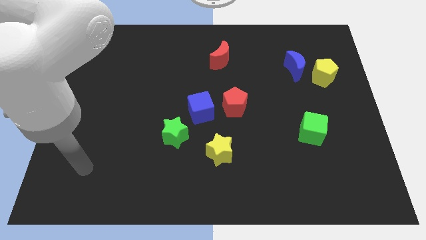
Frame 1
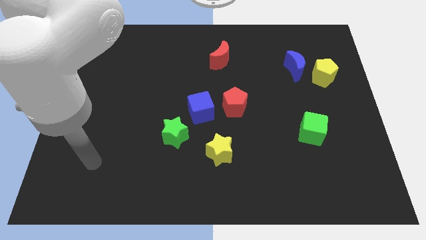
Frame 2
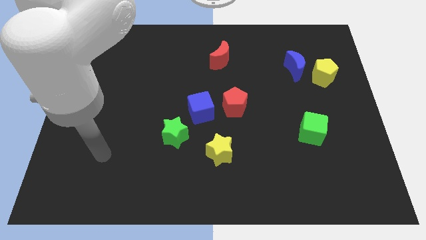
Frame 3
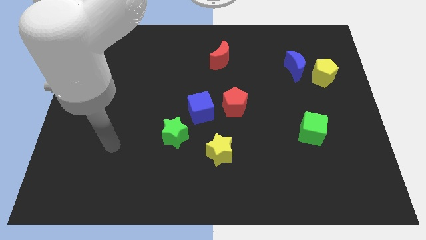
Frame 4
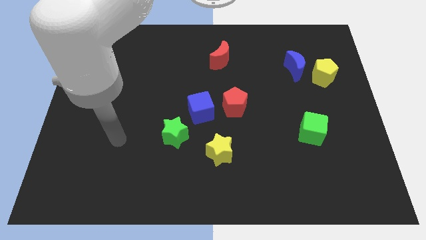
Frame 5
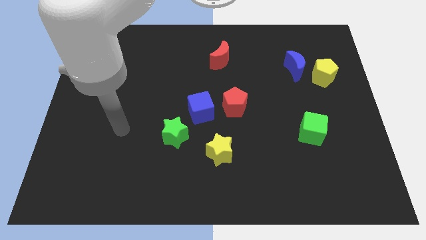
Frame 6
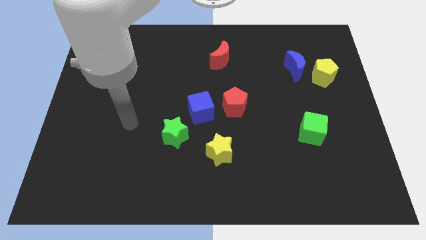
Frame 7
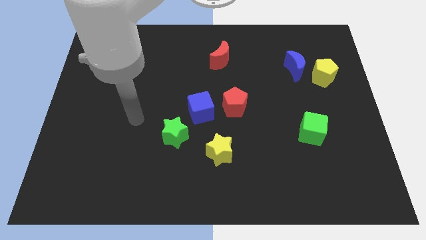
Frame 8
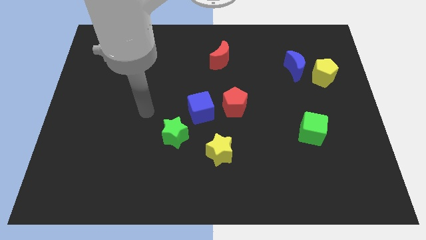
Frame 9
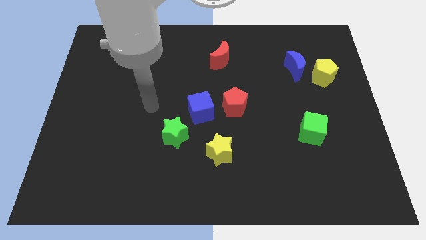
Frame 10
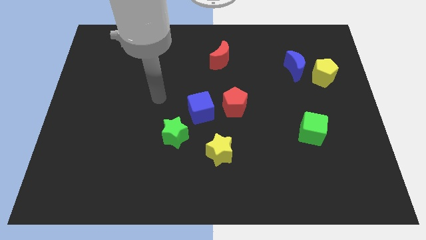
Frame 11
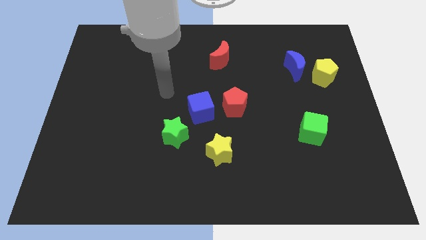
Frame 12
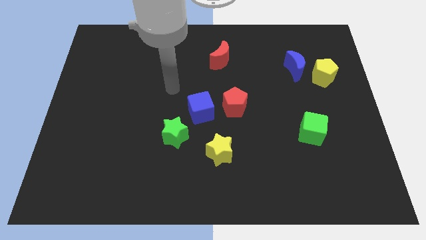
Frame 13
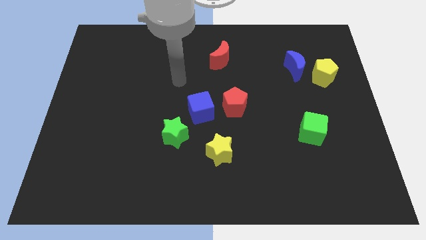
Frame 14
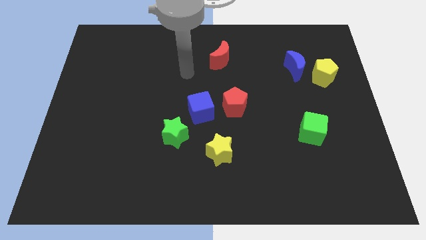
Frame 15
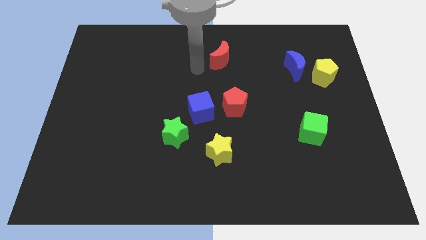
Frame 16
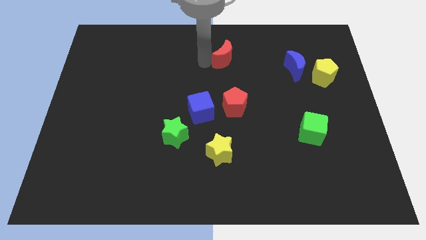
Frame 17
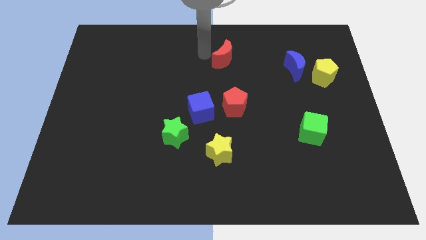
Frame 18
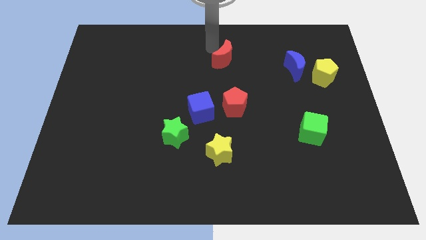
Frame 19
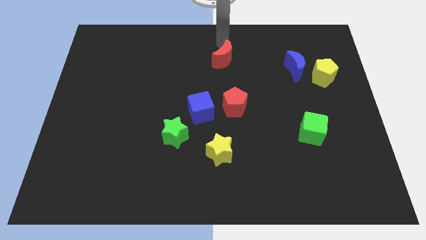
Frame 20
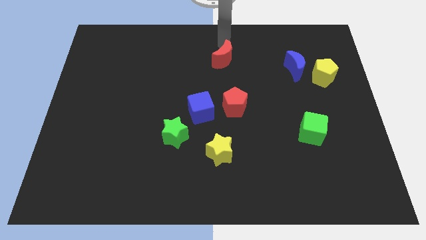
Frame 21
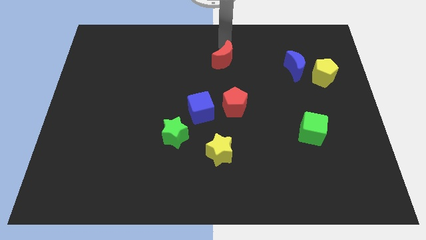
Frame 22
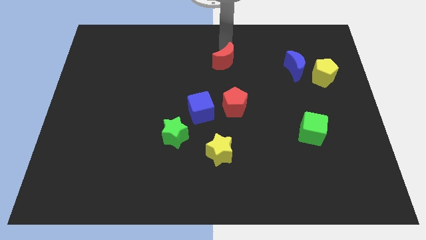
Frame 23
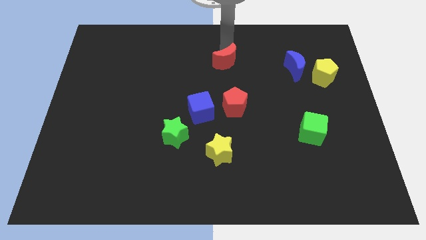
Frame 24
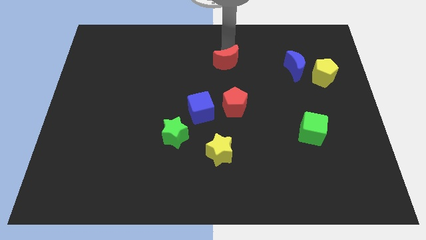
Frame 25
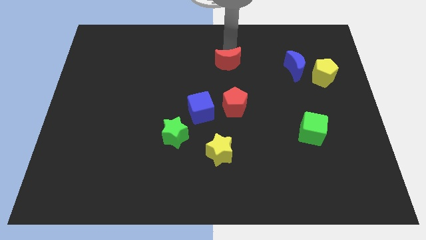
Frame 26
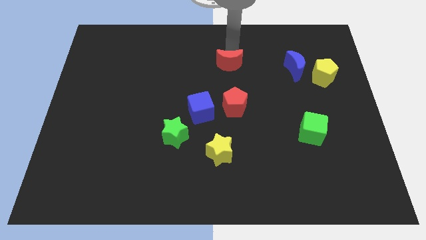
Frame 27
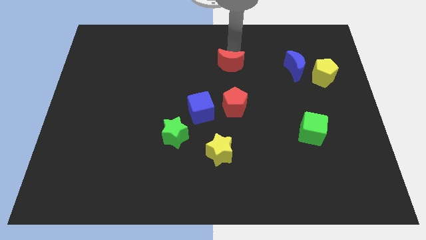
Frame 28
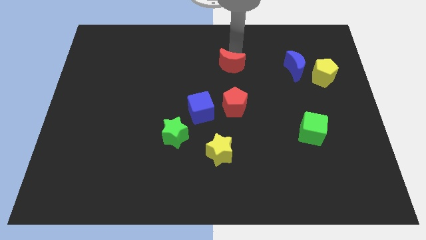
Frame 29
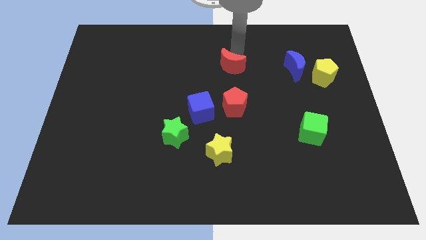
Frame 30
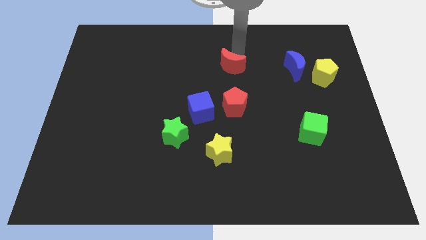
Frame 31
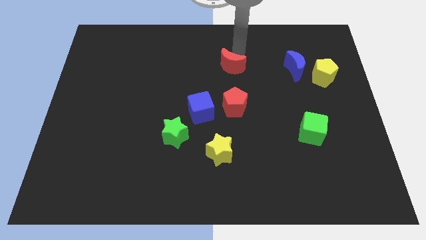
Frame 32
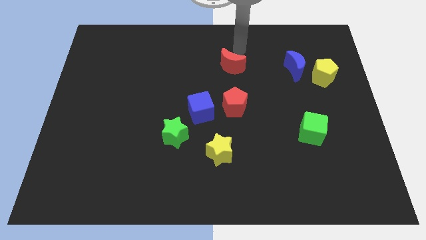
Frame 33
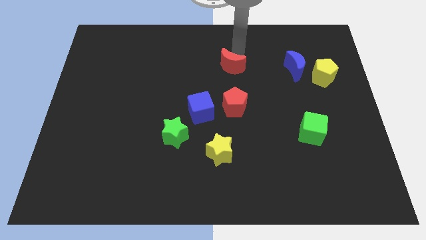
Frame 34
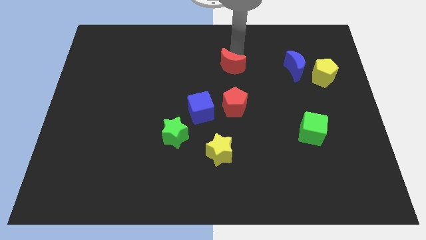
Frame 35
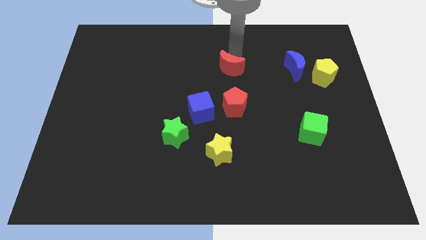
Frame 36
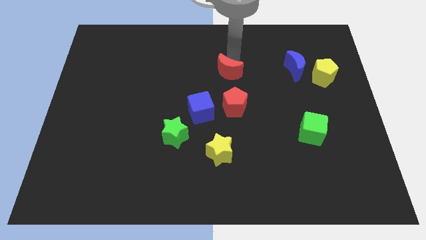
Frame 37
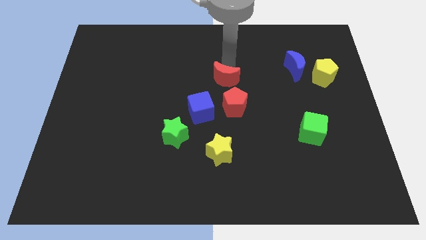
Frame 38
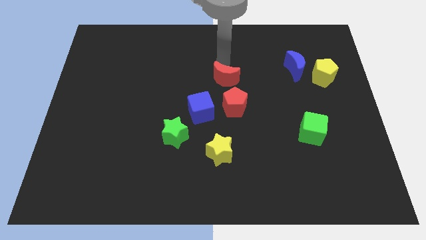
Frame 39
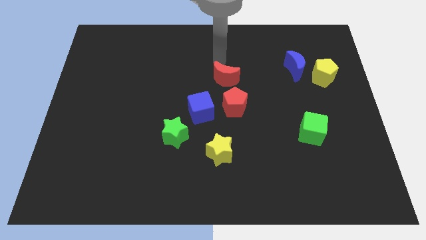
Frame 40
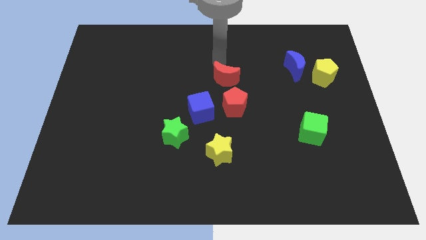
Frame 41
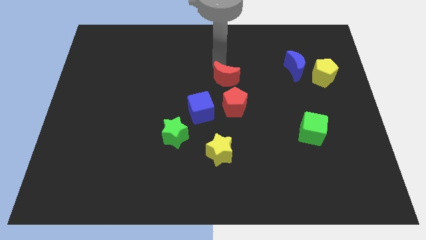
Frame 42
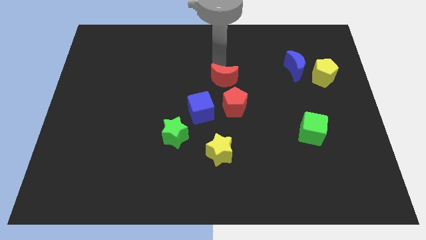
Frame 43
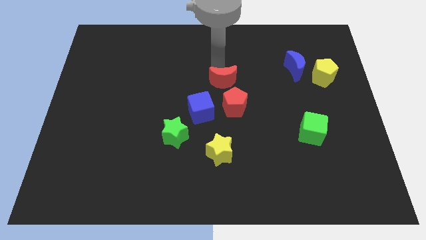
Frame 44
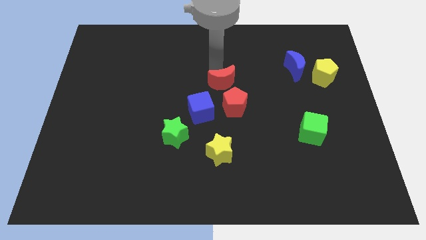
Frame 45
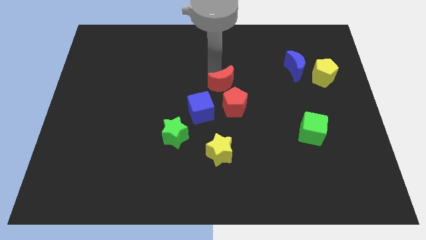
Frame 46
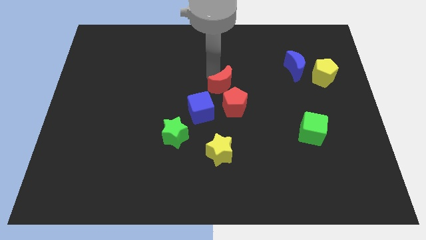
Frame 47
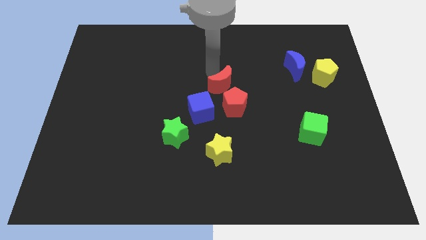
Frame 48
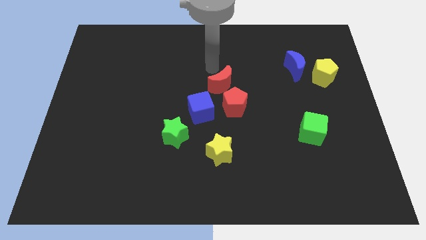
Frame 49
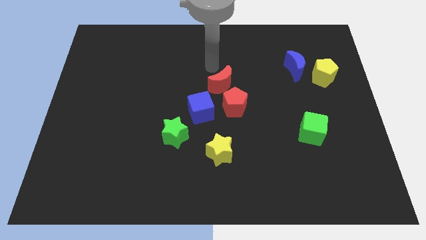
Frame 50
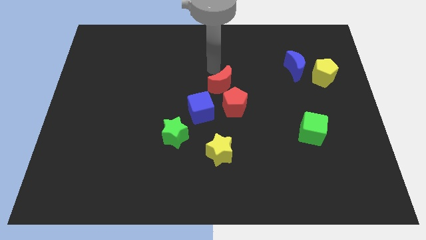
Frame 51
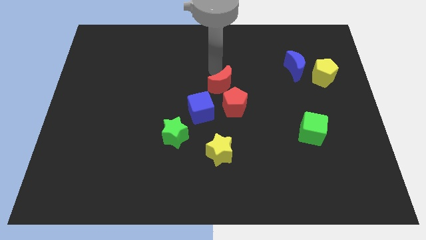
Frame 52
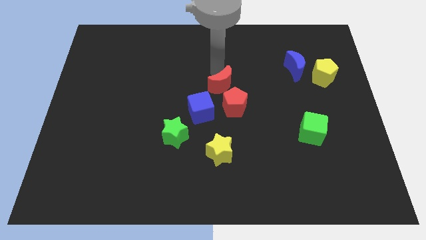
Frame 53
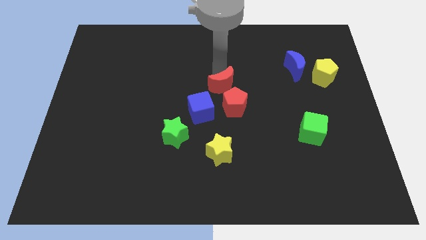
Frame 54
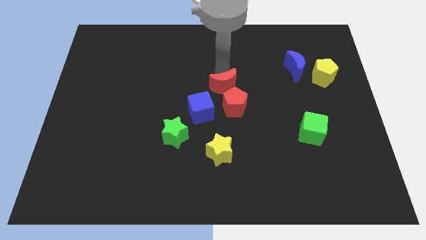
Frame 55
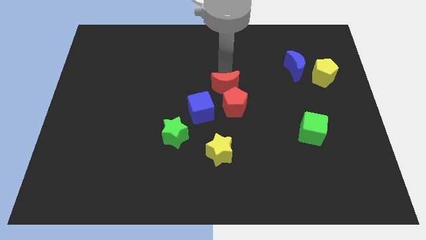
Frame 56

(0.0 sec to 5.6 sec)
put the red moon to the red pentagon

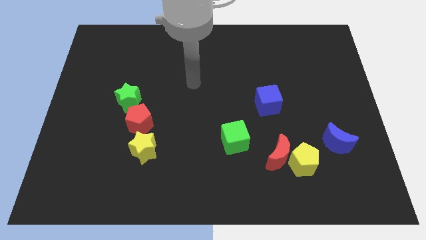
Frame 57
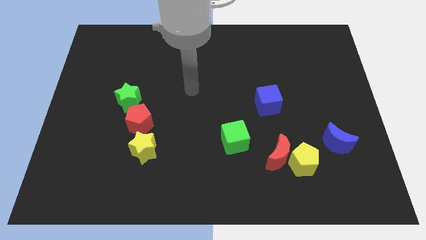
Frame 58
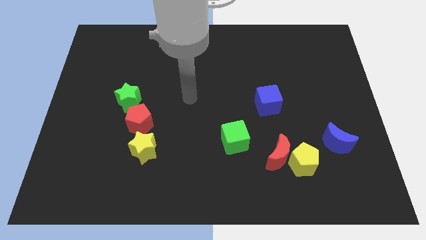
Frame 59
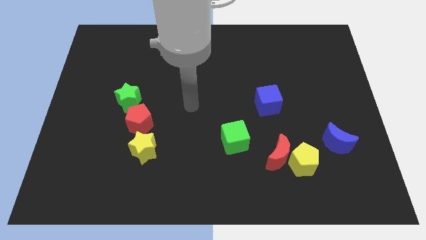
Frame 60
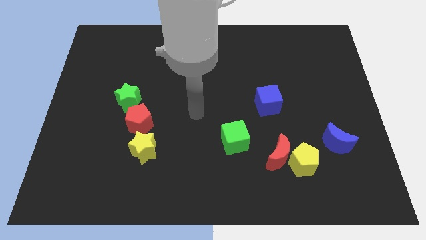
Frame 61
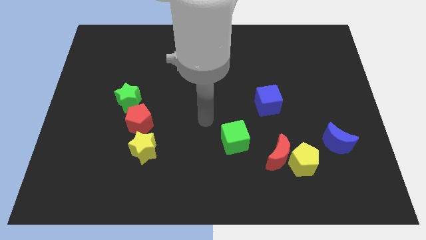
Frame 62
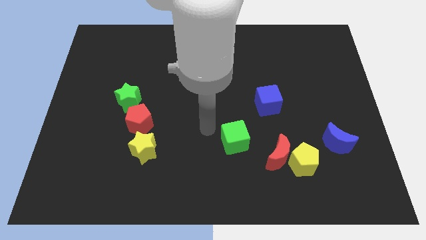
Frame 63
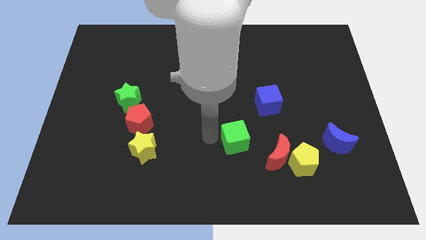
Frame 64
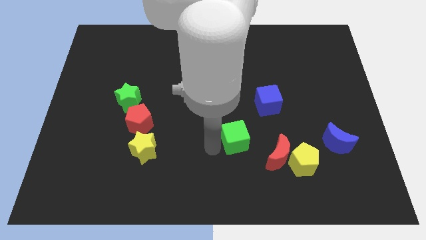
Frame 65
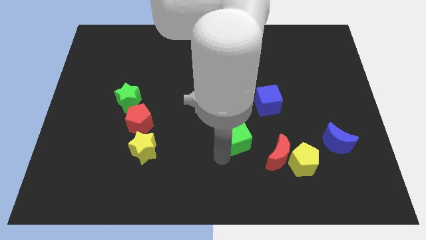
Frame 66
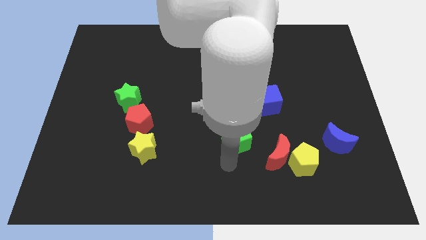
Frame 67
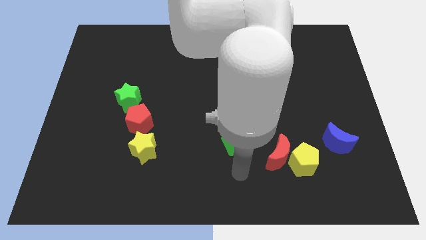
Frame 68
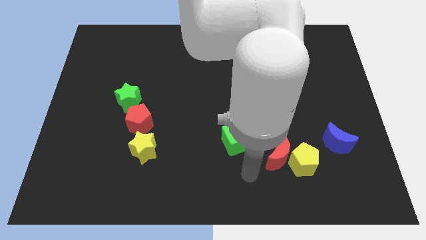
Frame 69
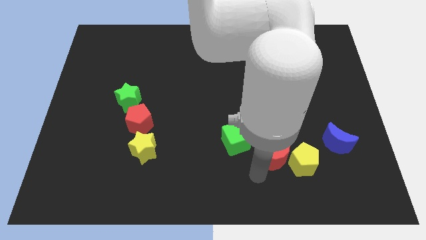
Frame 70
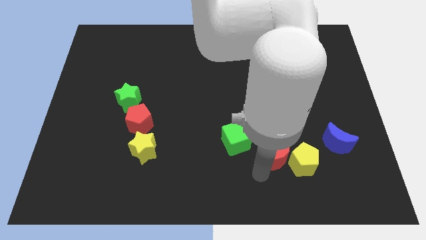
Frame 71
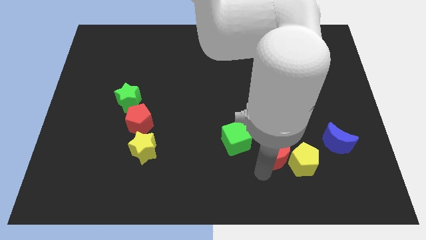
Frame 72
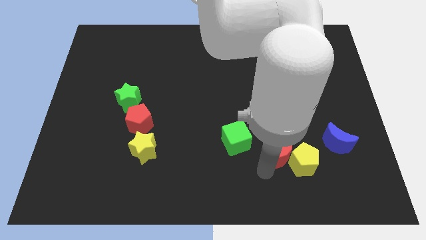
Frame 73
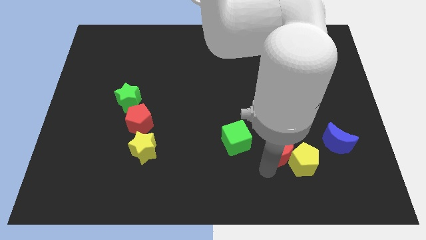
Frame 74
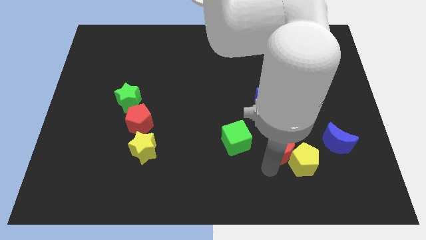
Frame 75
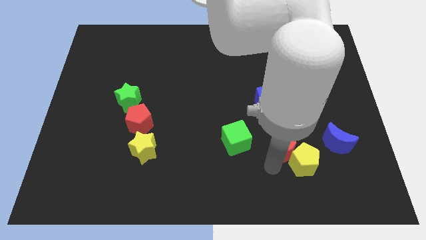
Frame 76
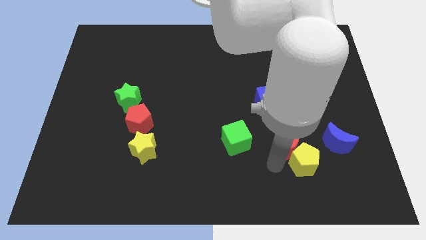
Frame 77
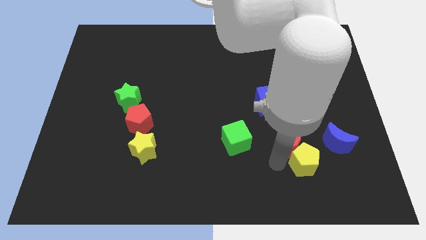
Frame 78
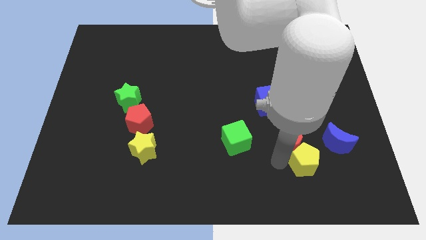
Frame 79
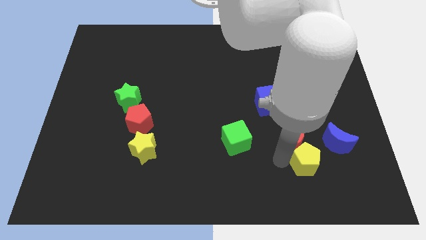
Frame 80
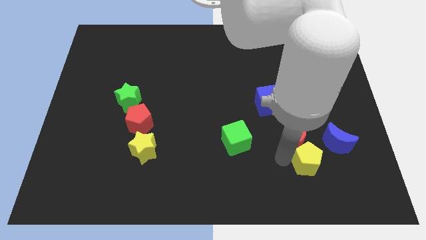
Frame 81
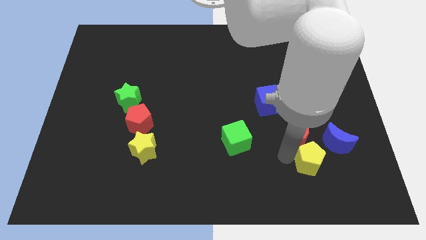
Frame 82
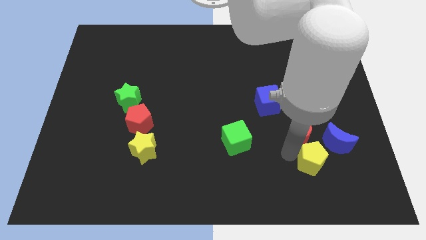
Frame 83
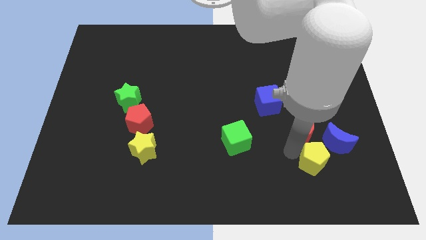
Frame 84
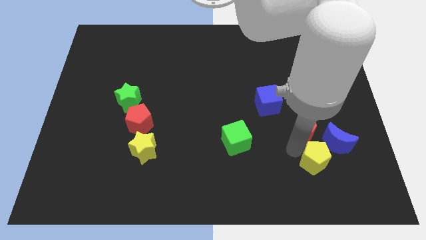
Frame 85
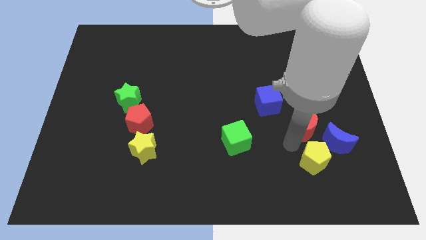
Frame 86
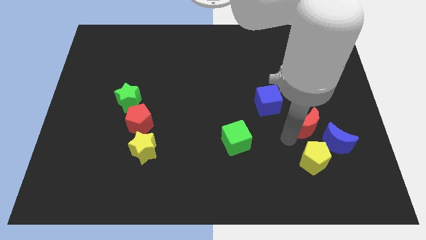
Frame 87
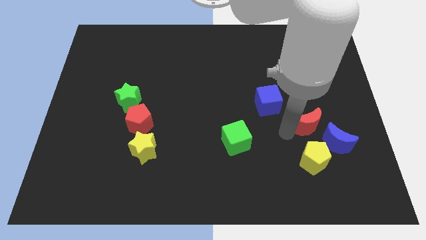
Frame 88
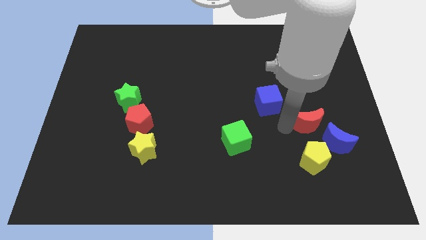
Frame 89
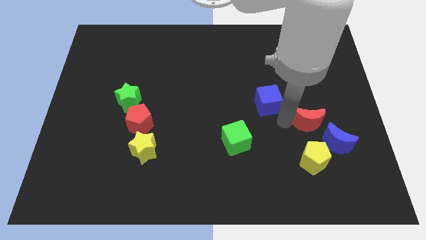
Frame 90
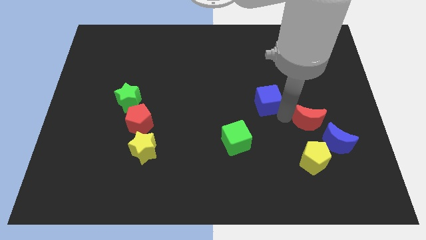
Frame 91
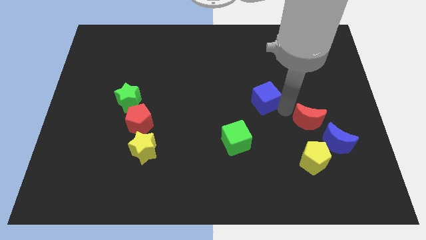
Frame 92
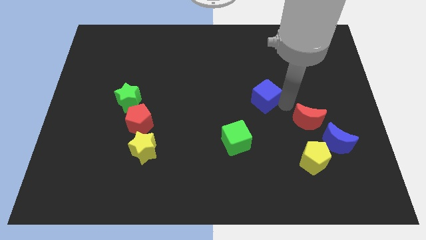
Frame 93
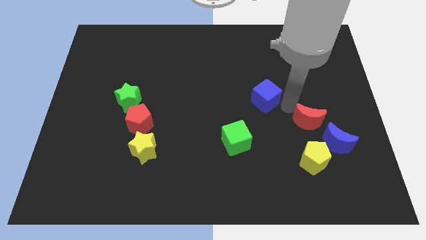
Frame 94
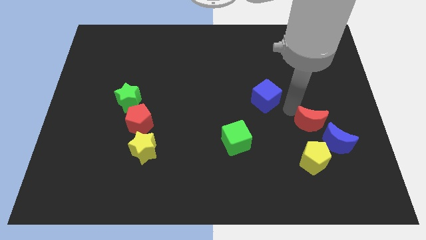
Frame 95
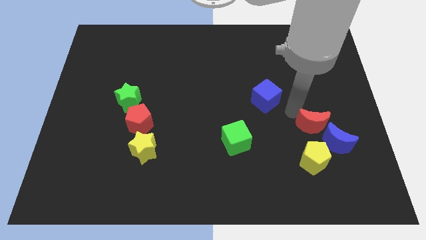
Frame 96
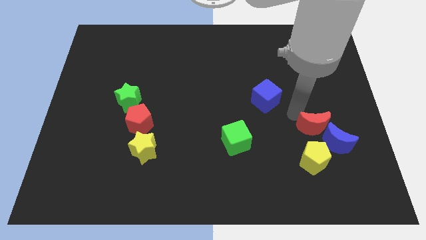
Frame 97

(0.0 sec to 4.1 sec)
put the red moon close to the blue moon
